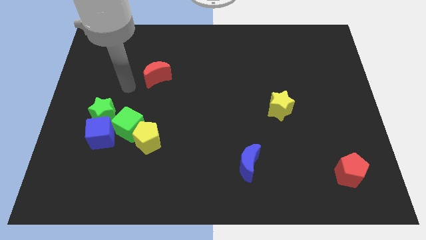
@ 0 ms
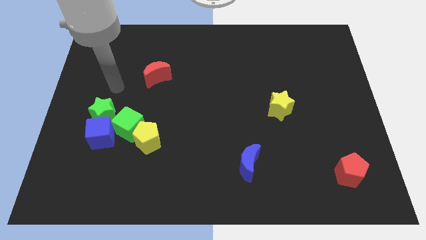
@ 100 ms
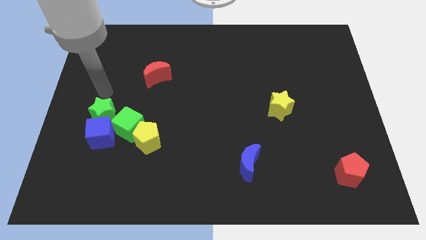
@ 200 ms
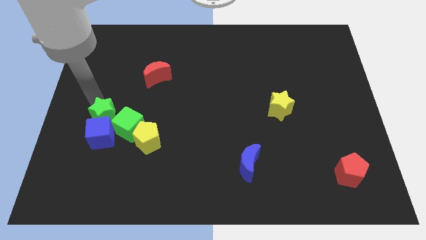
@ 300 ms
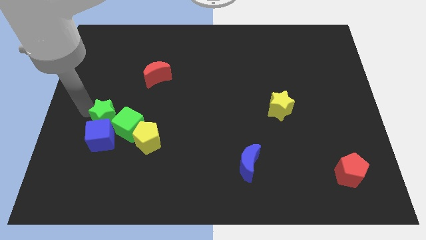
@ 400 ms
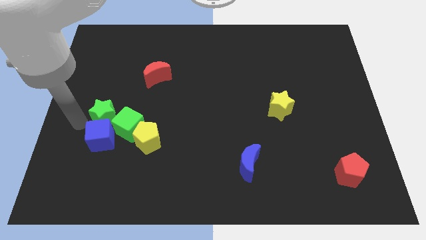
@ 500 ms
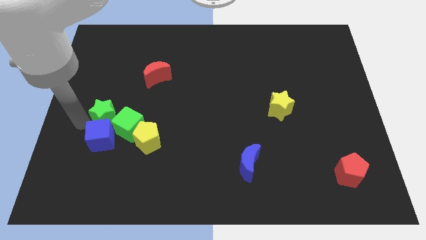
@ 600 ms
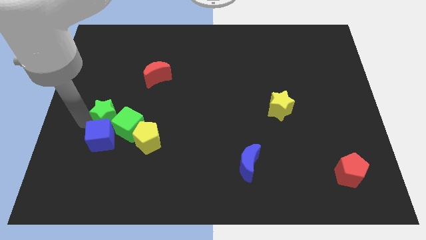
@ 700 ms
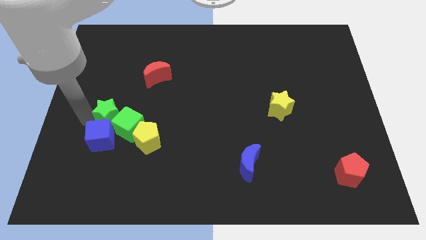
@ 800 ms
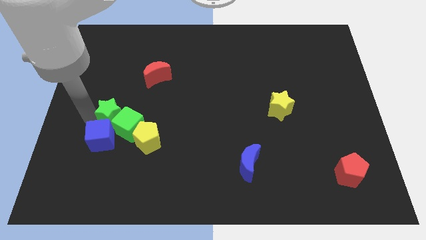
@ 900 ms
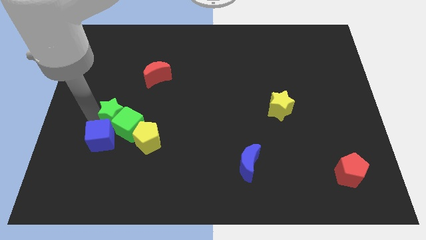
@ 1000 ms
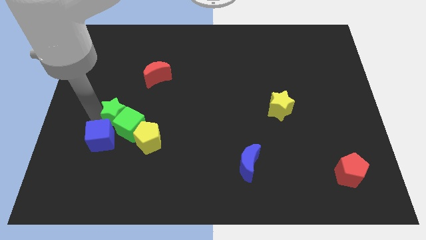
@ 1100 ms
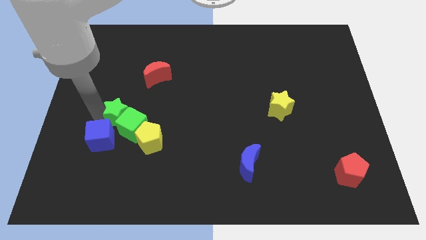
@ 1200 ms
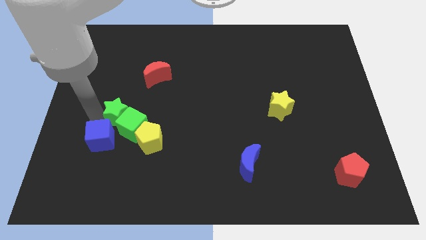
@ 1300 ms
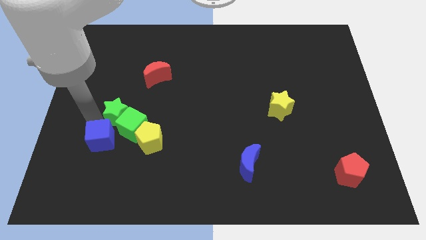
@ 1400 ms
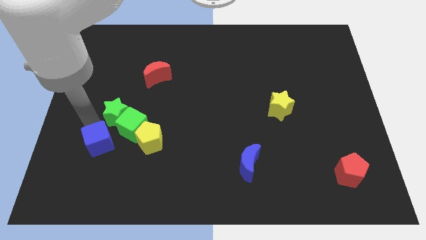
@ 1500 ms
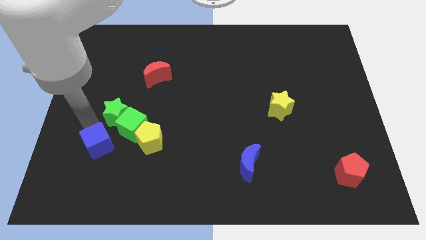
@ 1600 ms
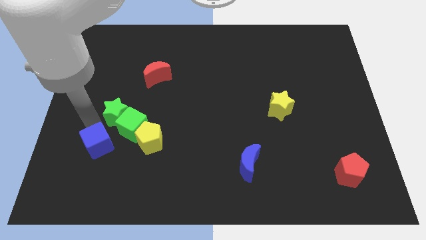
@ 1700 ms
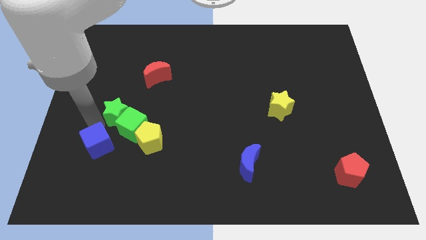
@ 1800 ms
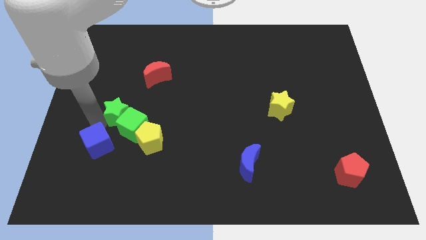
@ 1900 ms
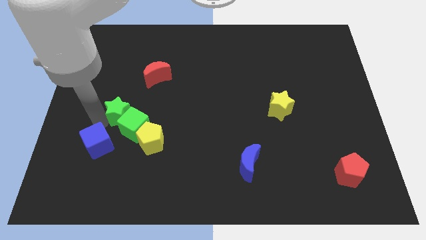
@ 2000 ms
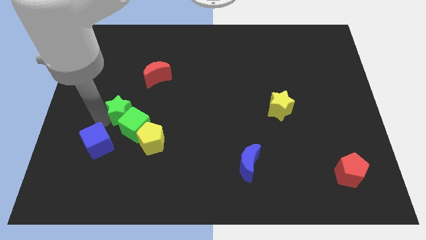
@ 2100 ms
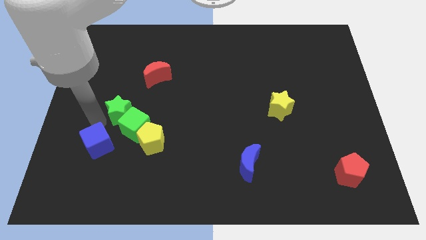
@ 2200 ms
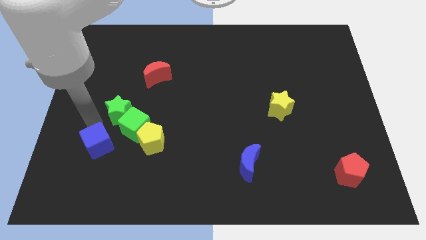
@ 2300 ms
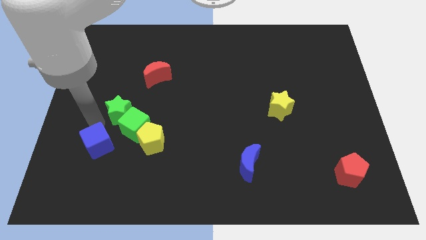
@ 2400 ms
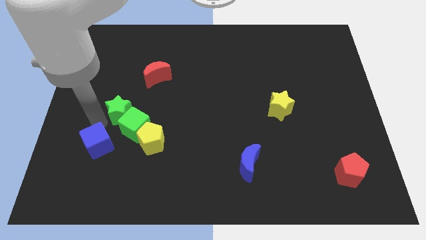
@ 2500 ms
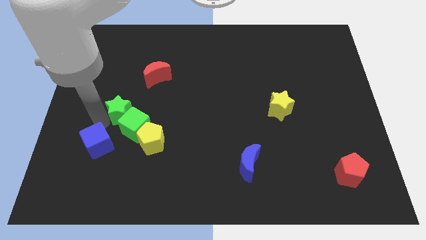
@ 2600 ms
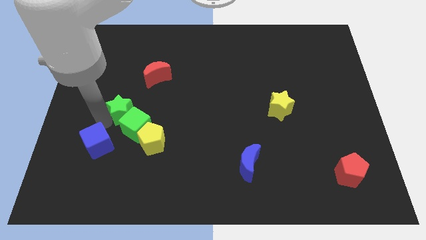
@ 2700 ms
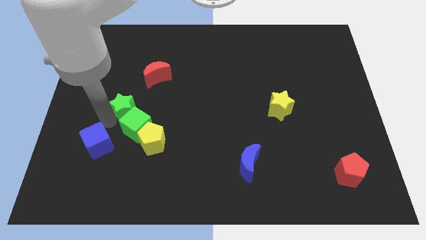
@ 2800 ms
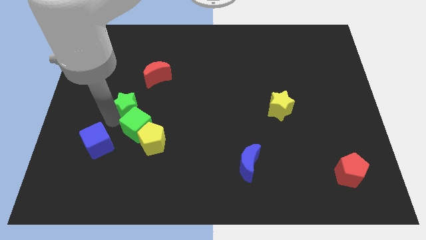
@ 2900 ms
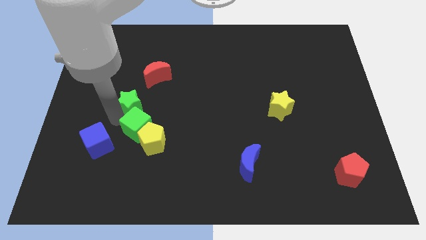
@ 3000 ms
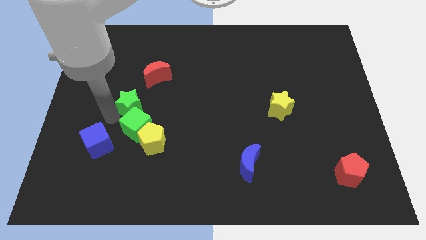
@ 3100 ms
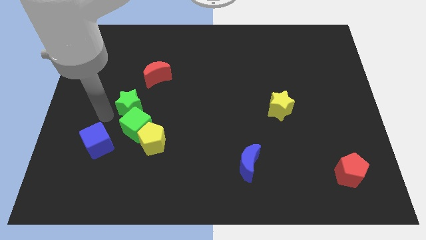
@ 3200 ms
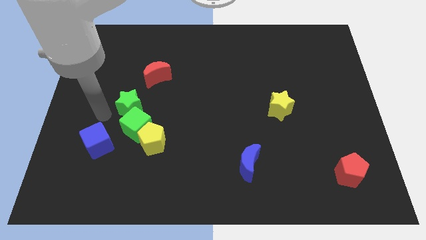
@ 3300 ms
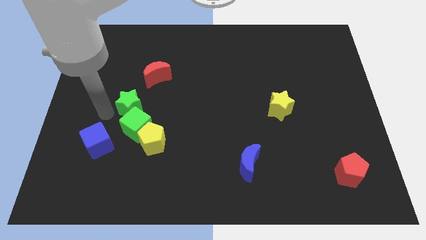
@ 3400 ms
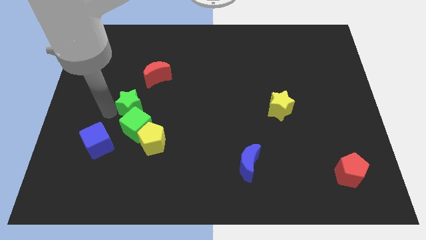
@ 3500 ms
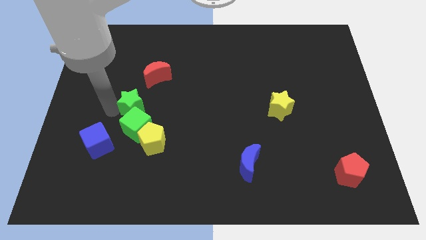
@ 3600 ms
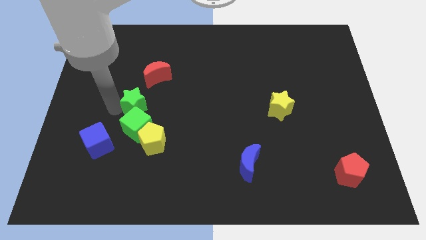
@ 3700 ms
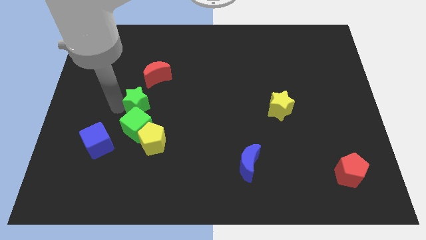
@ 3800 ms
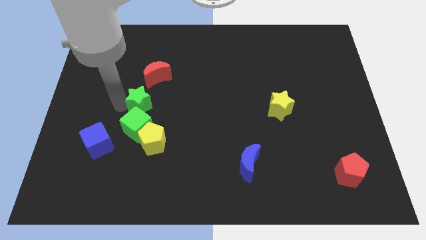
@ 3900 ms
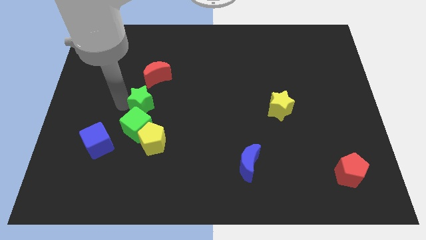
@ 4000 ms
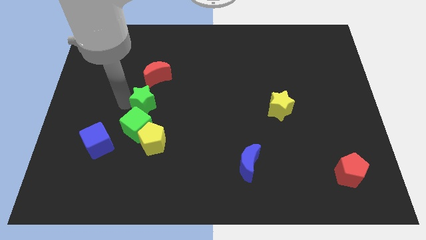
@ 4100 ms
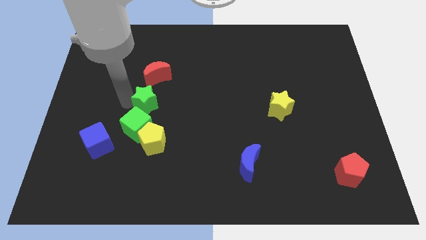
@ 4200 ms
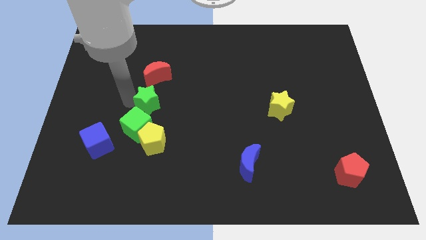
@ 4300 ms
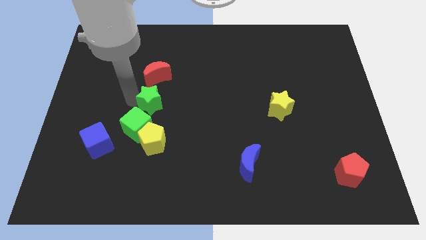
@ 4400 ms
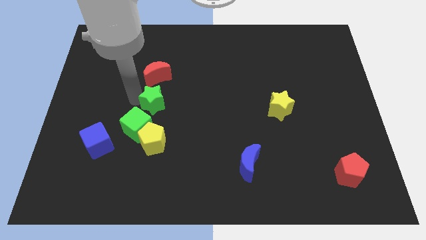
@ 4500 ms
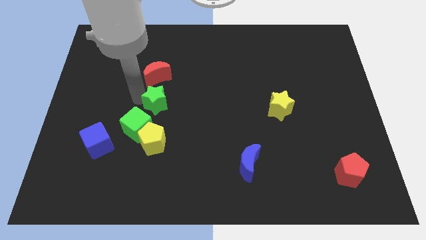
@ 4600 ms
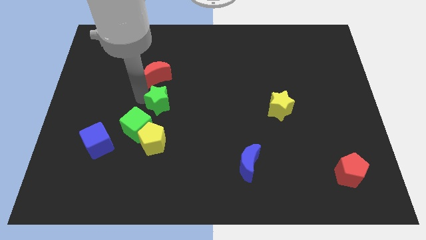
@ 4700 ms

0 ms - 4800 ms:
push the green star to the bottom right side of the red moon

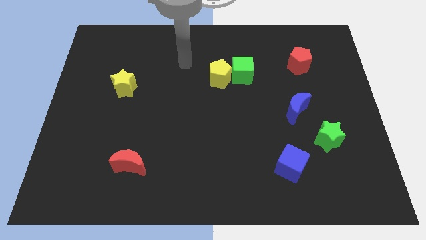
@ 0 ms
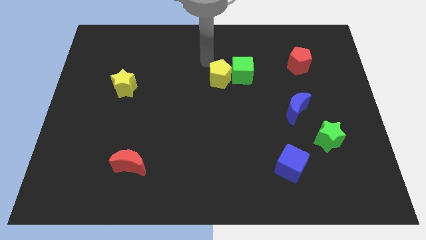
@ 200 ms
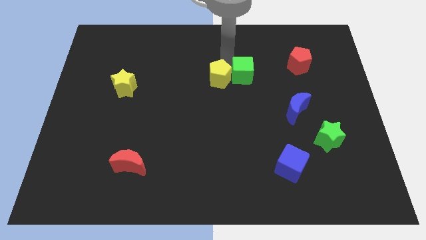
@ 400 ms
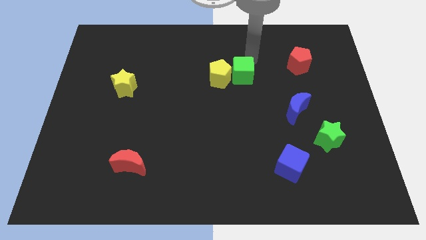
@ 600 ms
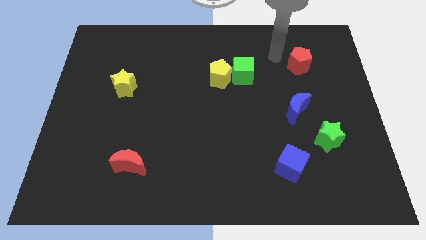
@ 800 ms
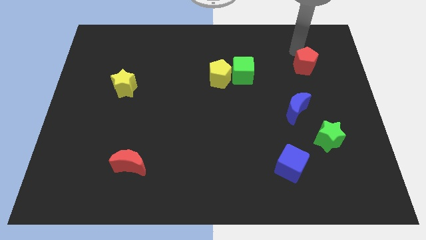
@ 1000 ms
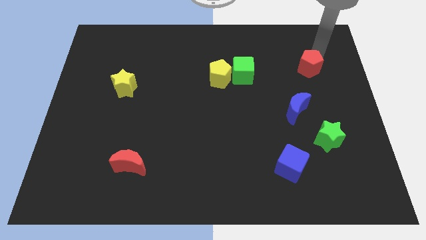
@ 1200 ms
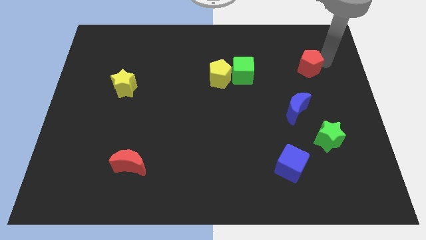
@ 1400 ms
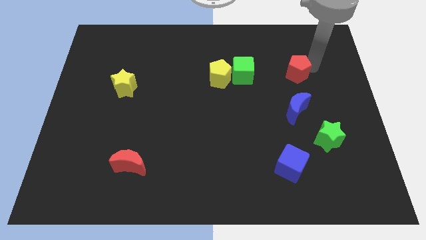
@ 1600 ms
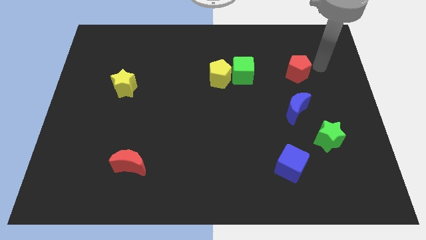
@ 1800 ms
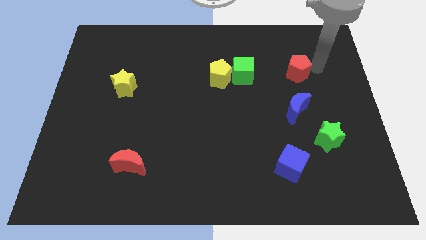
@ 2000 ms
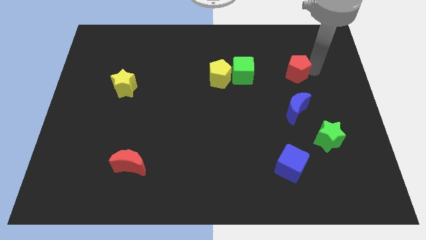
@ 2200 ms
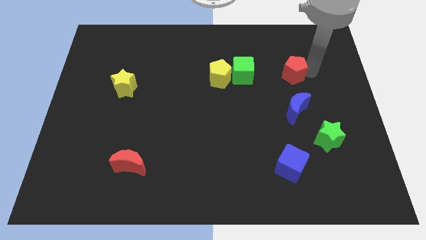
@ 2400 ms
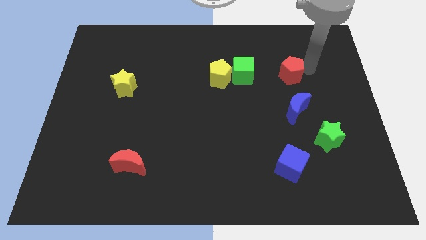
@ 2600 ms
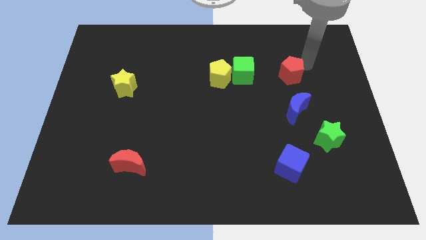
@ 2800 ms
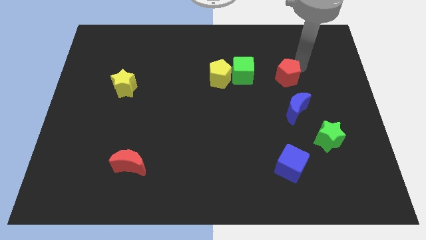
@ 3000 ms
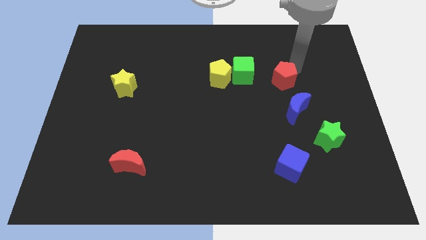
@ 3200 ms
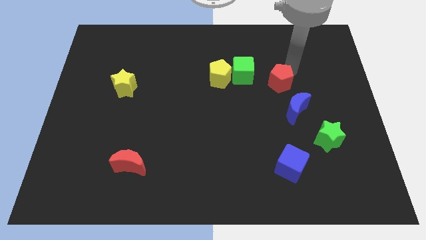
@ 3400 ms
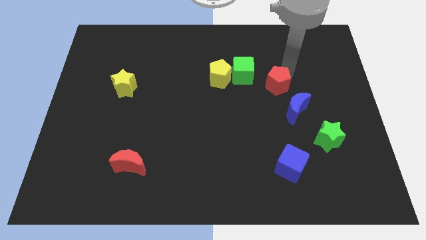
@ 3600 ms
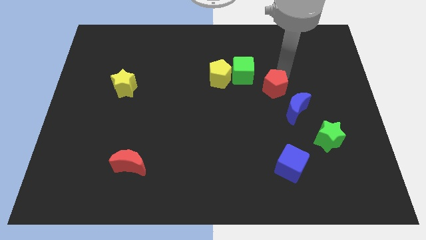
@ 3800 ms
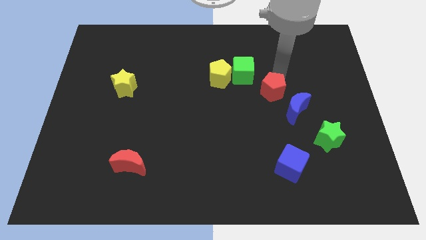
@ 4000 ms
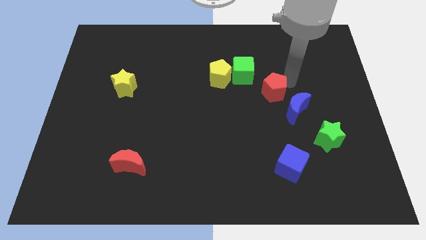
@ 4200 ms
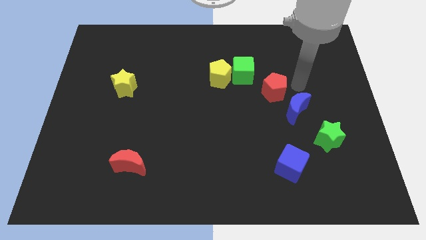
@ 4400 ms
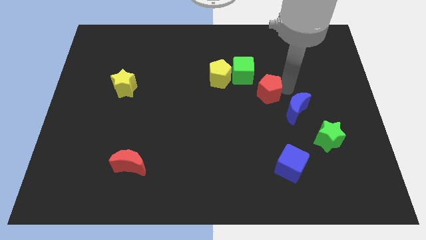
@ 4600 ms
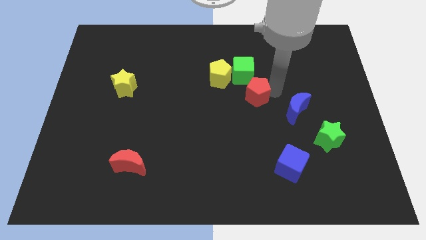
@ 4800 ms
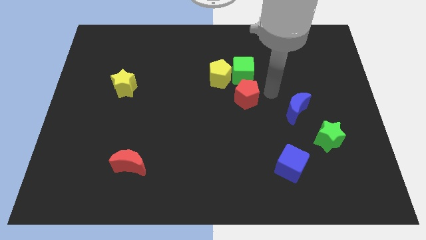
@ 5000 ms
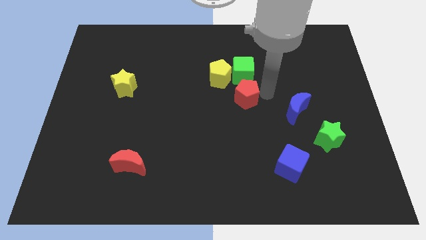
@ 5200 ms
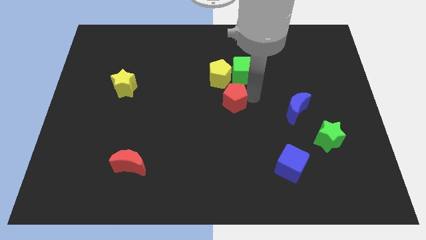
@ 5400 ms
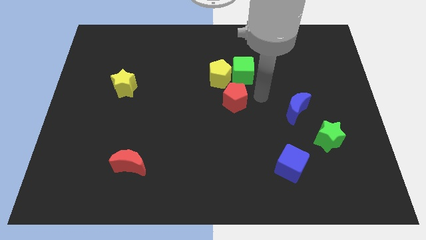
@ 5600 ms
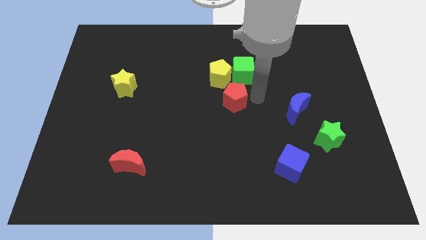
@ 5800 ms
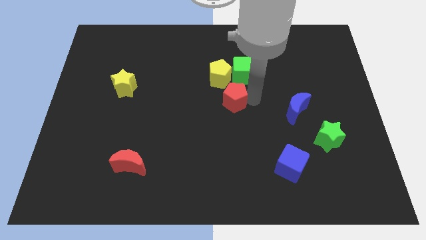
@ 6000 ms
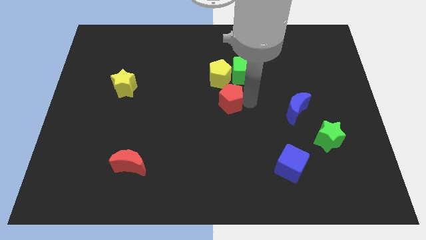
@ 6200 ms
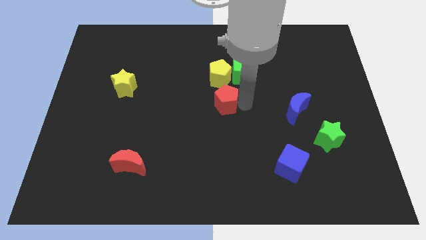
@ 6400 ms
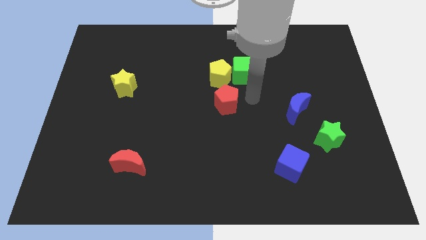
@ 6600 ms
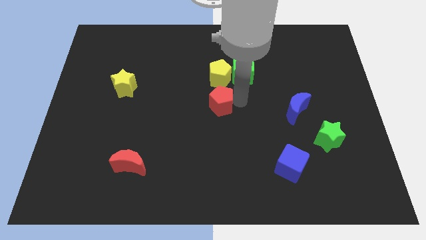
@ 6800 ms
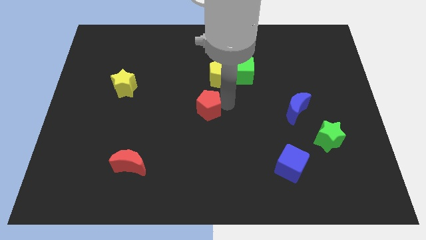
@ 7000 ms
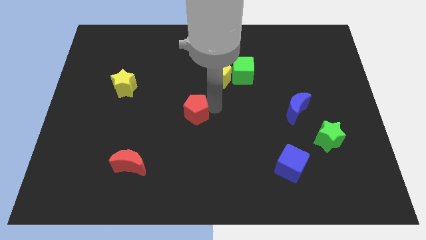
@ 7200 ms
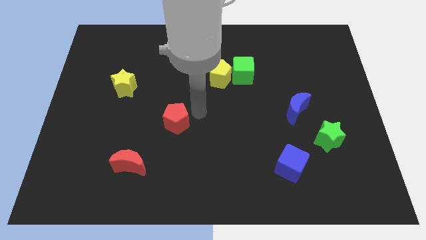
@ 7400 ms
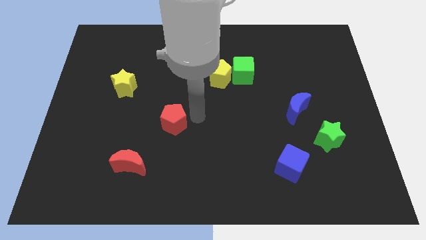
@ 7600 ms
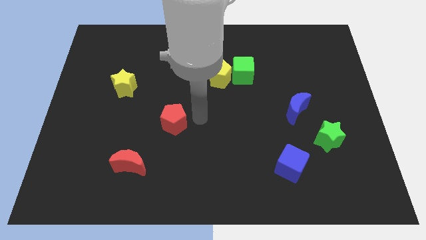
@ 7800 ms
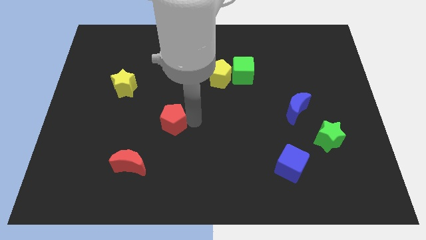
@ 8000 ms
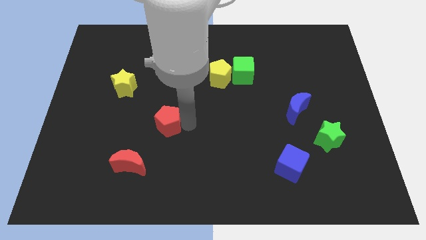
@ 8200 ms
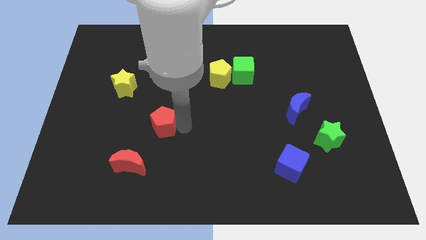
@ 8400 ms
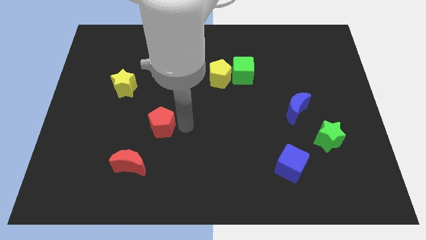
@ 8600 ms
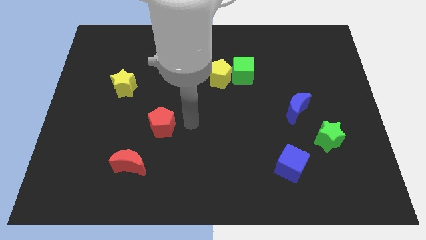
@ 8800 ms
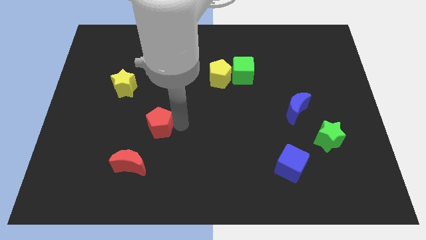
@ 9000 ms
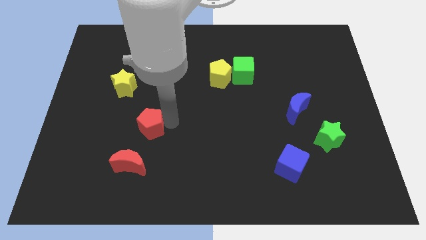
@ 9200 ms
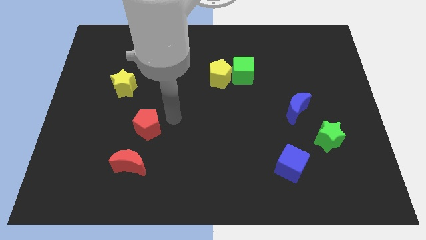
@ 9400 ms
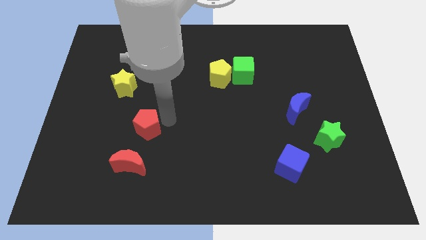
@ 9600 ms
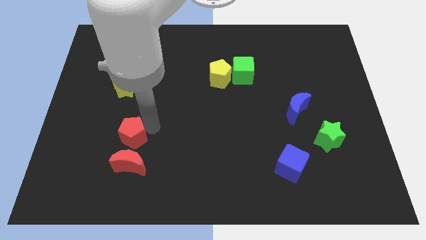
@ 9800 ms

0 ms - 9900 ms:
slide the red pentagon diagonally up and to the left of the red moon
